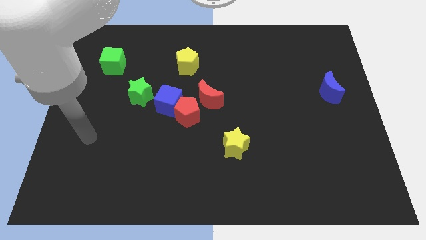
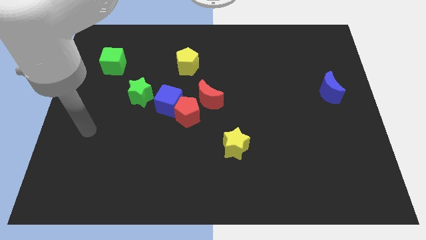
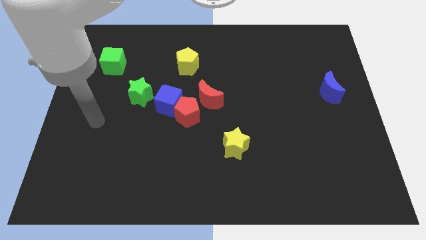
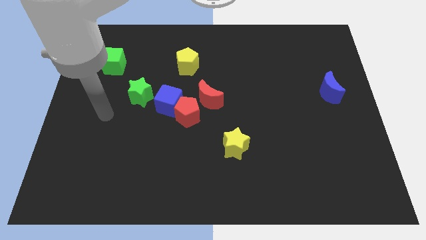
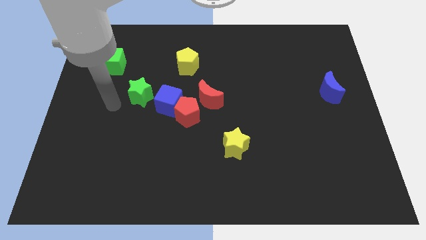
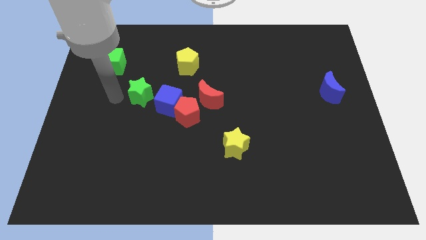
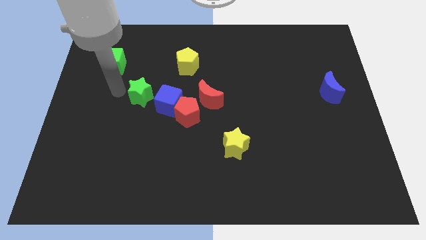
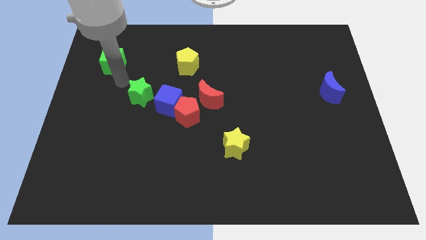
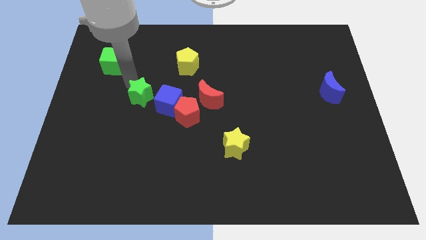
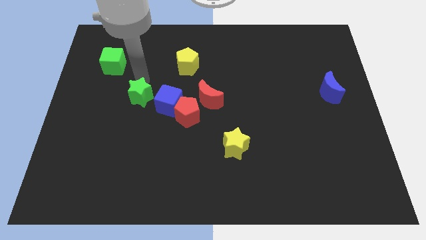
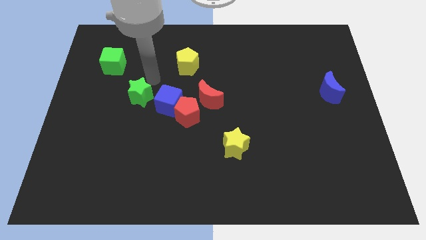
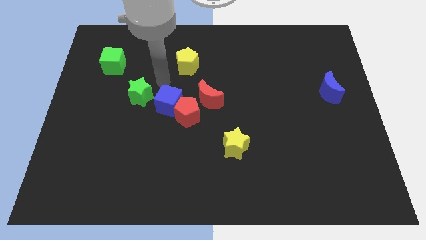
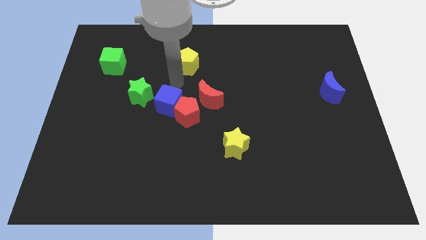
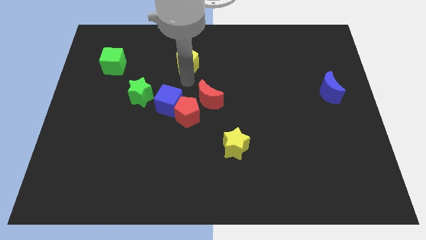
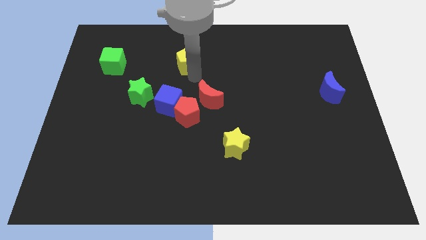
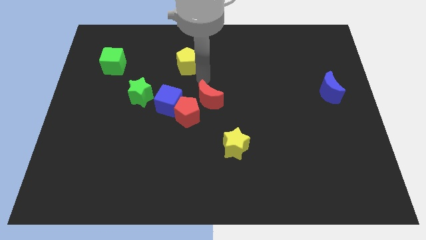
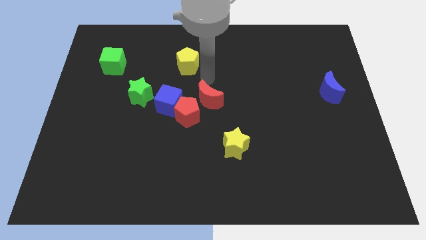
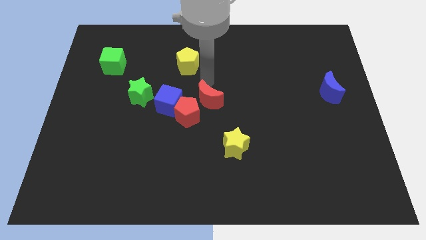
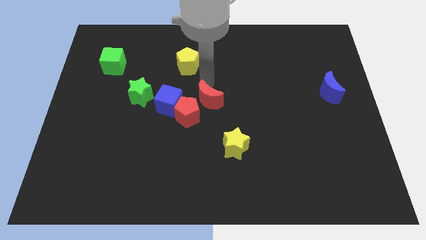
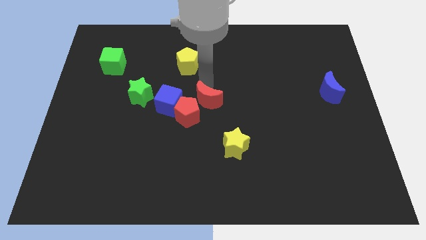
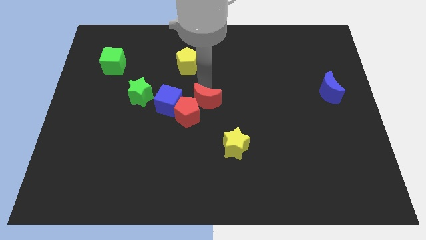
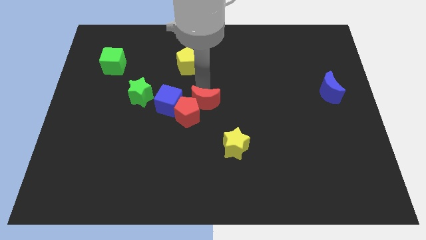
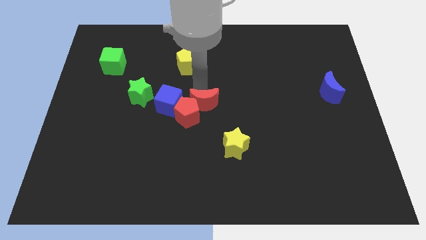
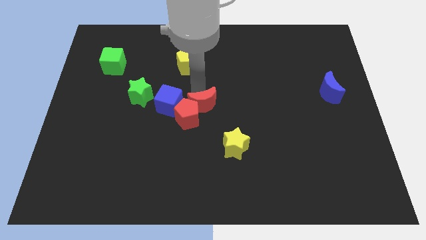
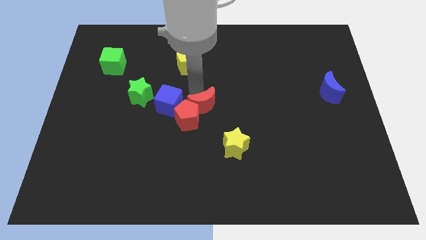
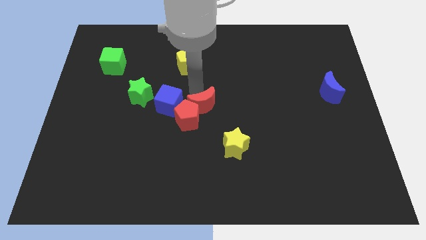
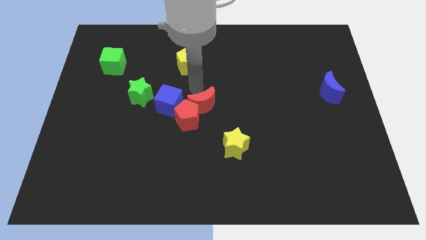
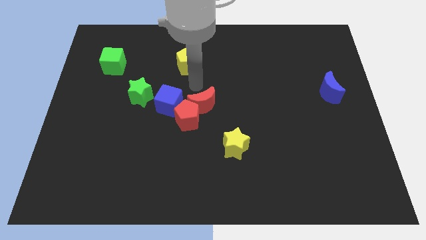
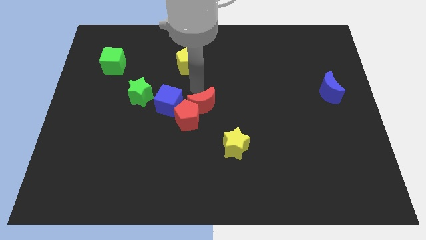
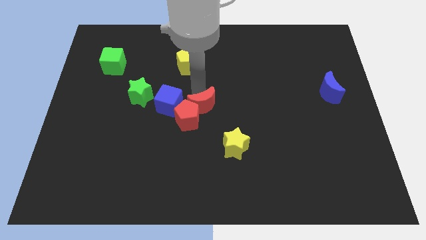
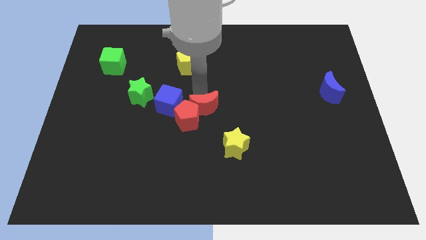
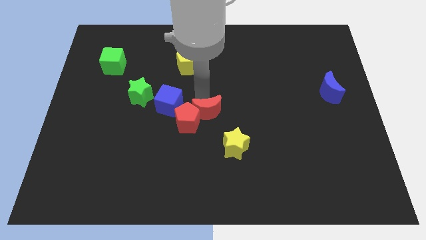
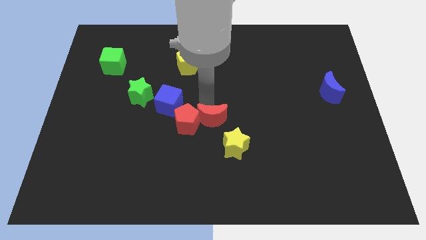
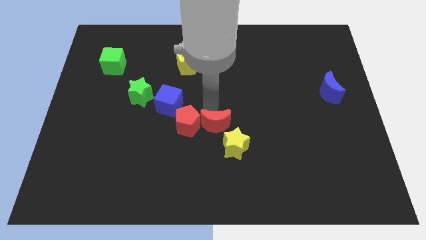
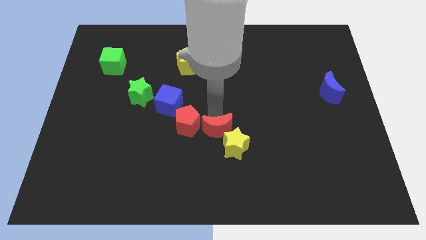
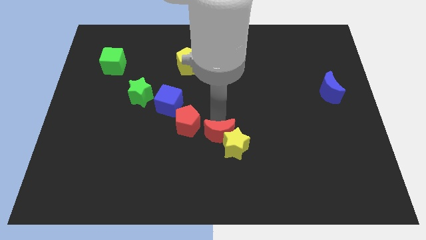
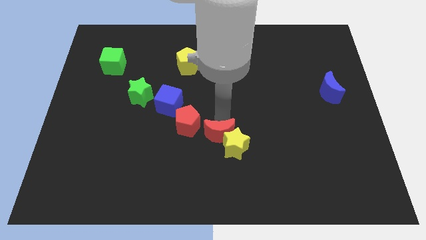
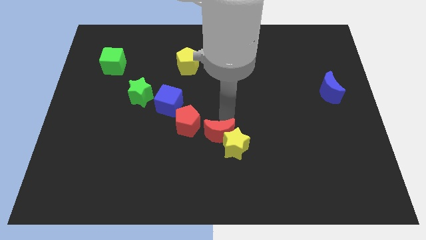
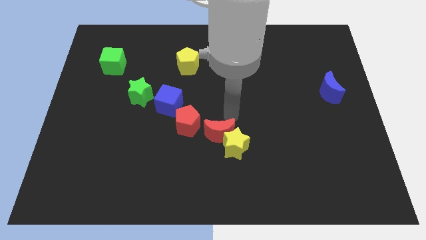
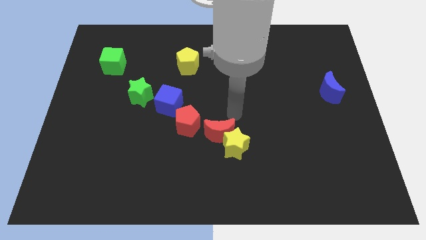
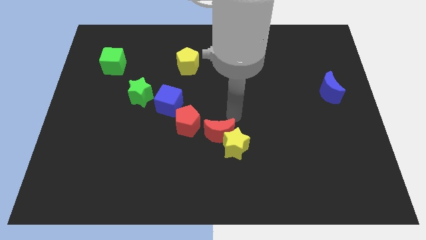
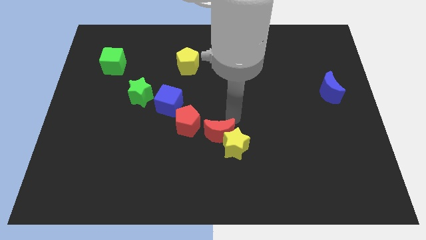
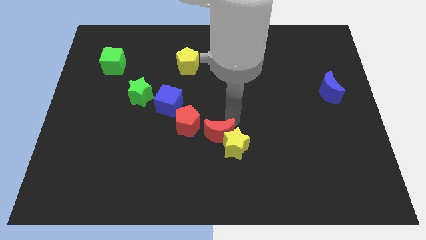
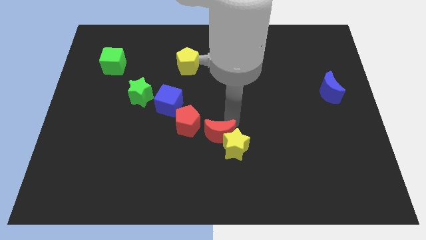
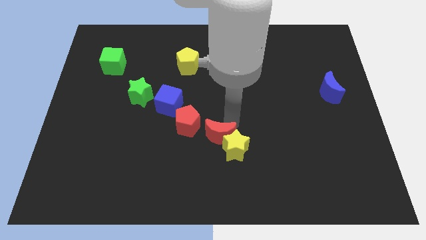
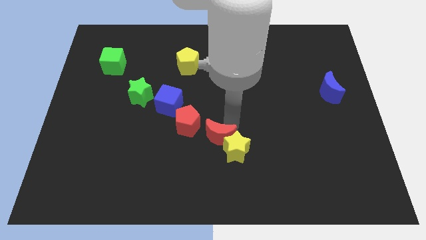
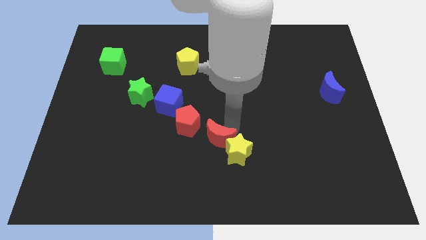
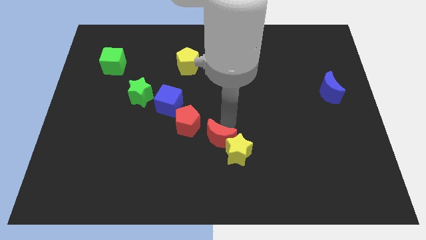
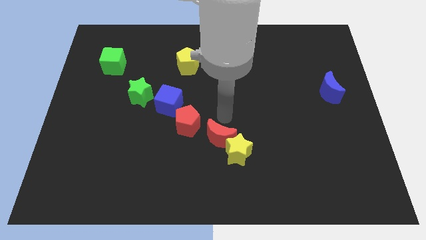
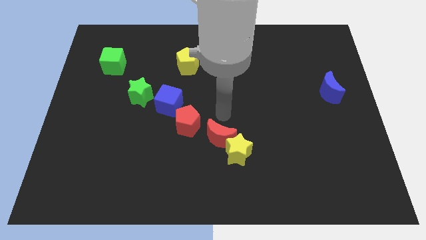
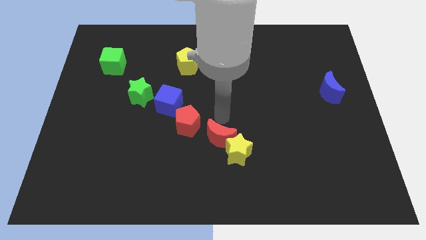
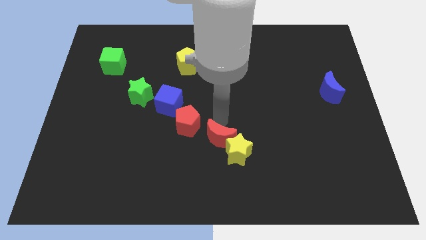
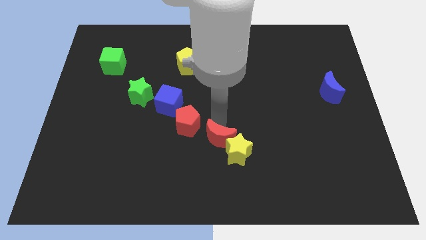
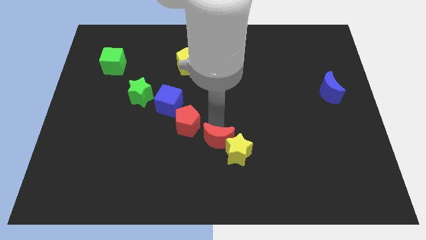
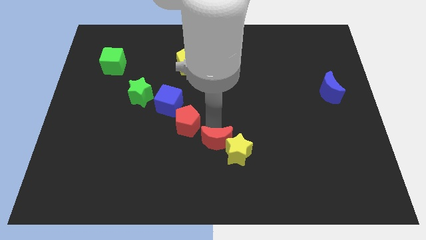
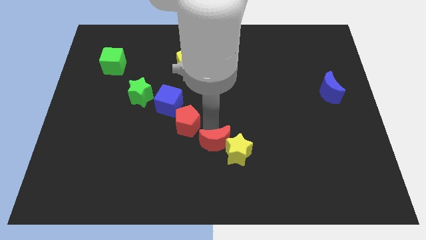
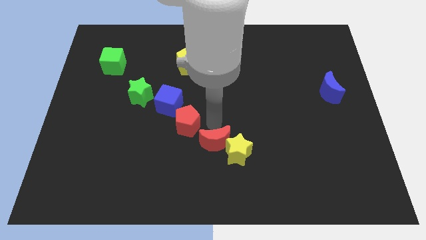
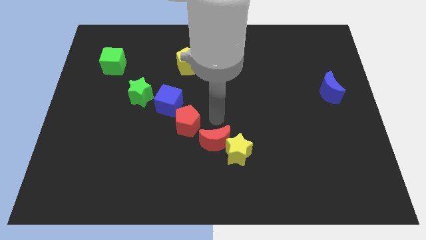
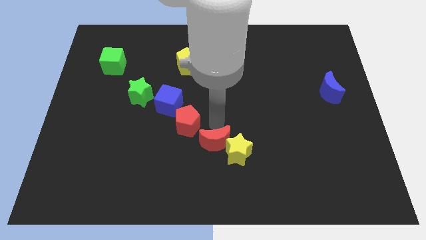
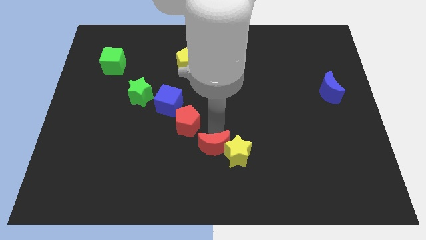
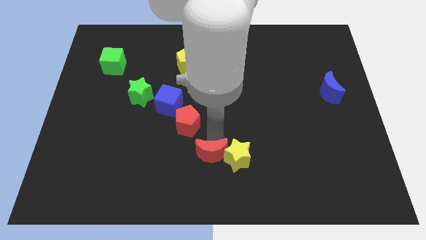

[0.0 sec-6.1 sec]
move the red moon to the bottom left side of the yellow star
